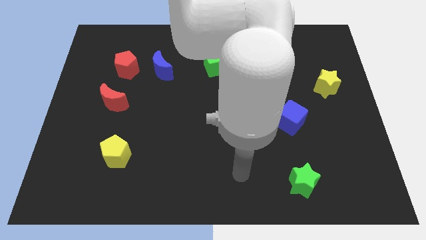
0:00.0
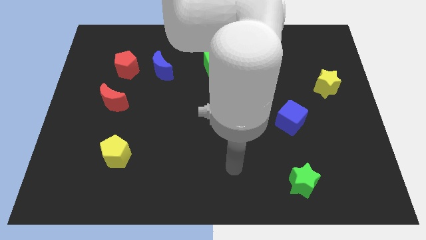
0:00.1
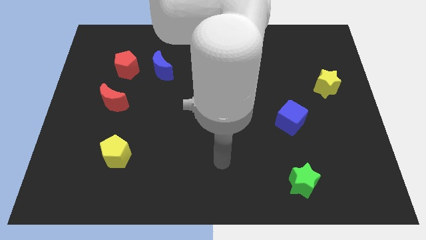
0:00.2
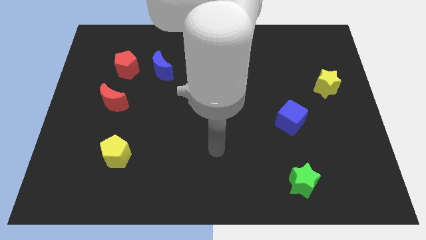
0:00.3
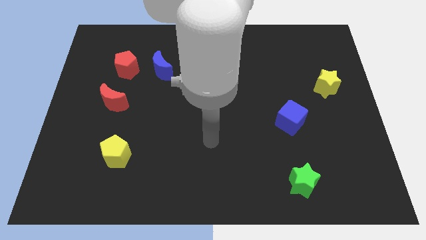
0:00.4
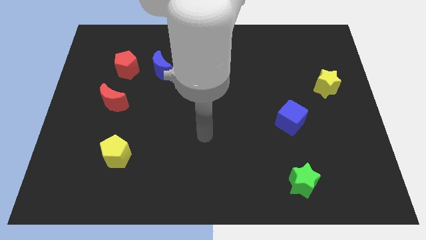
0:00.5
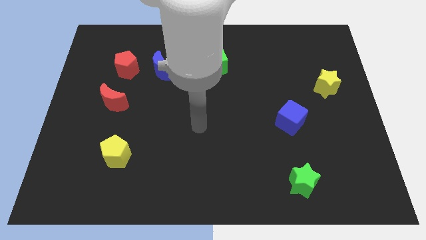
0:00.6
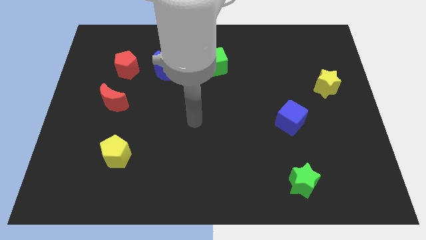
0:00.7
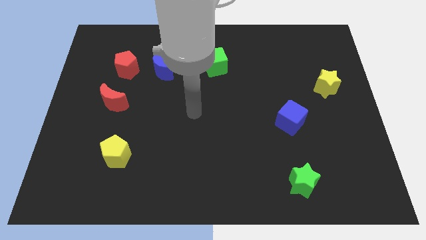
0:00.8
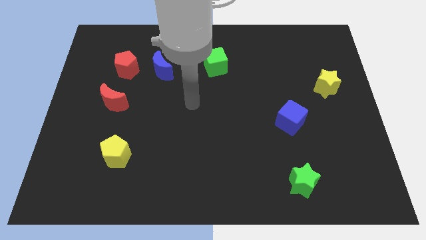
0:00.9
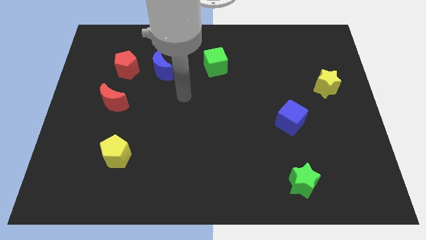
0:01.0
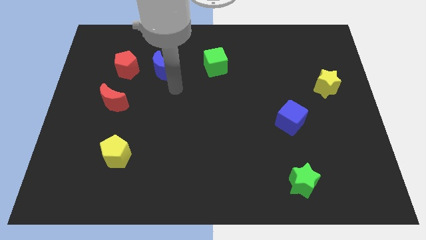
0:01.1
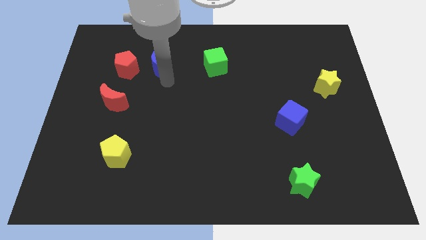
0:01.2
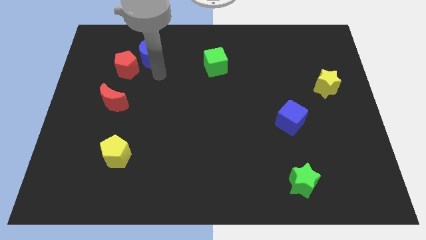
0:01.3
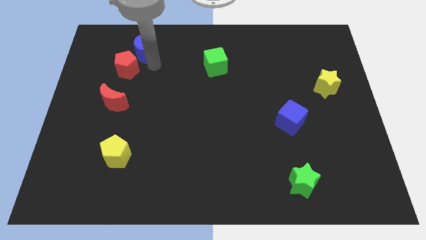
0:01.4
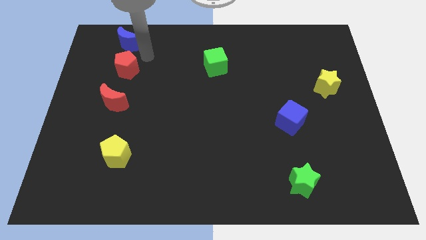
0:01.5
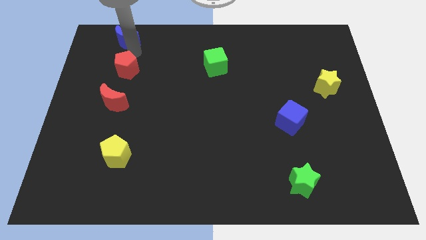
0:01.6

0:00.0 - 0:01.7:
pull the red pentagon apart from the blue moon

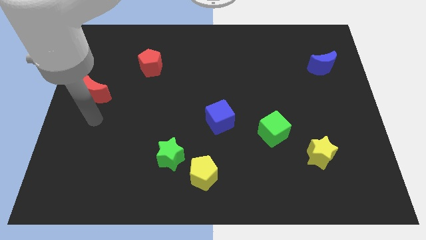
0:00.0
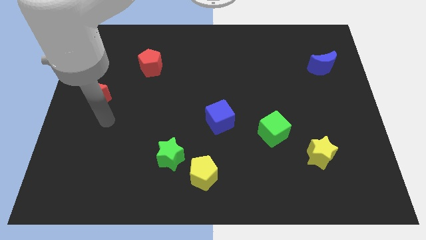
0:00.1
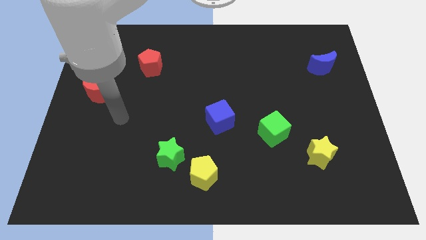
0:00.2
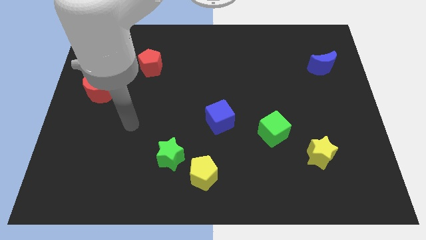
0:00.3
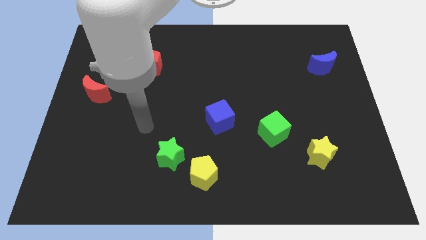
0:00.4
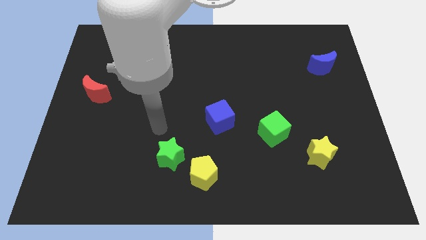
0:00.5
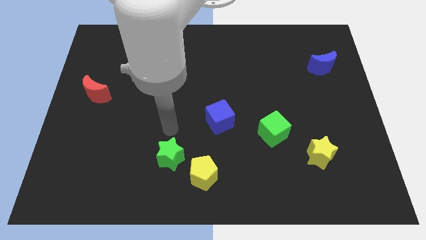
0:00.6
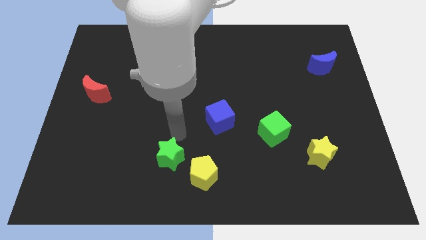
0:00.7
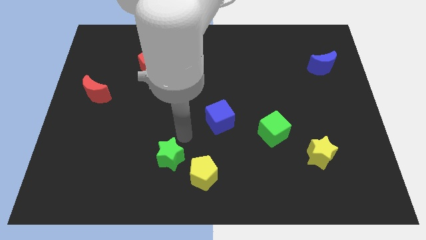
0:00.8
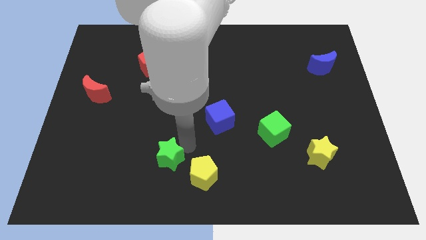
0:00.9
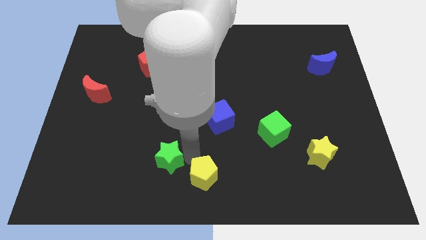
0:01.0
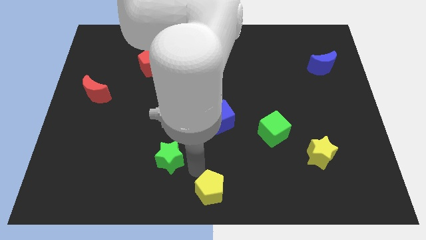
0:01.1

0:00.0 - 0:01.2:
pull the green star apart from the yellow pentagon

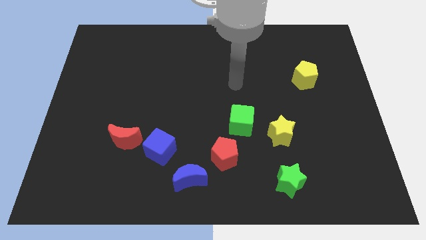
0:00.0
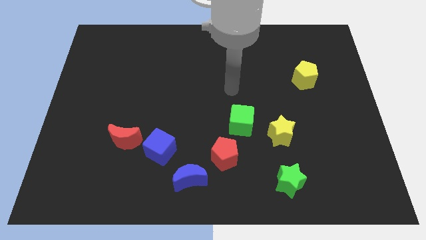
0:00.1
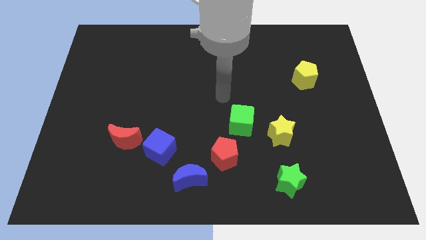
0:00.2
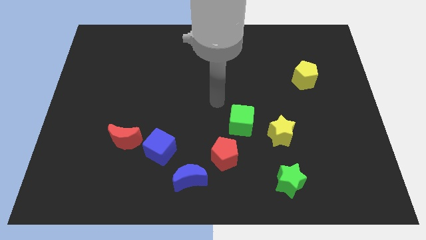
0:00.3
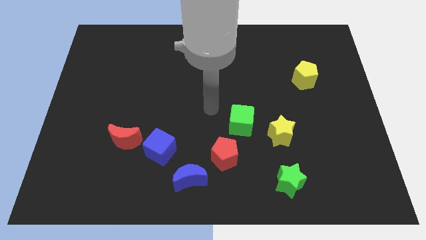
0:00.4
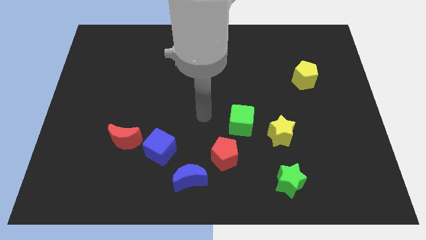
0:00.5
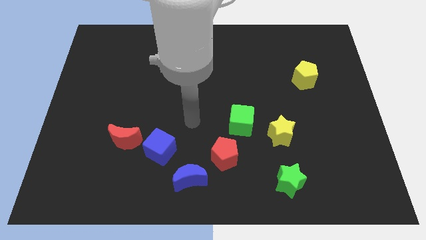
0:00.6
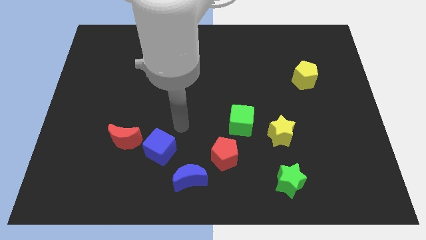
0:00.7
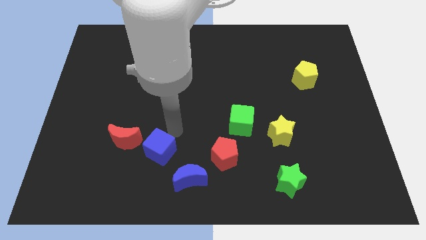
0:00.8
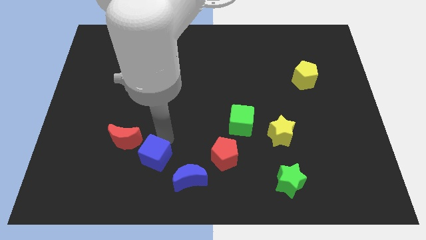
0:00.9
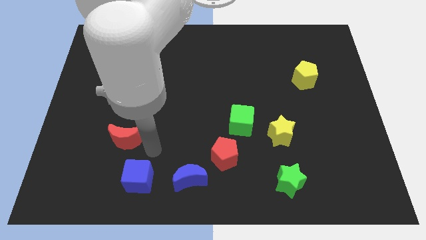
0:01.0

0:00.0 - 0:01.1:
move the red moon away from the blue cube

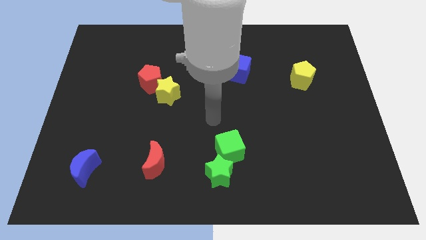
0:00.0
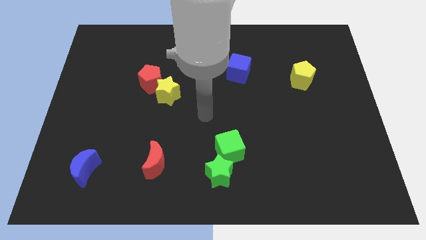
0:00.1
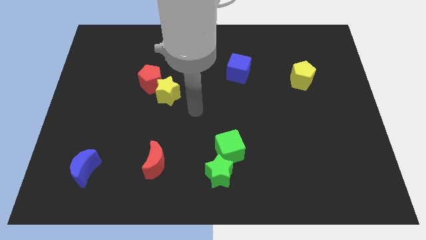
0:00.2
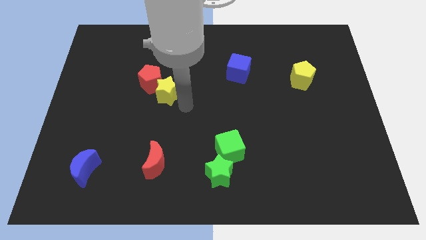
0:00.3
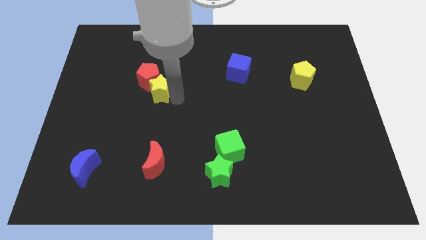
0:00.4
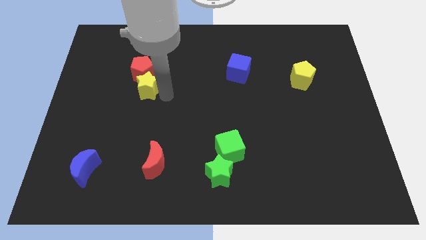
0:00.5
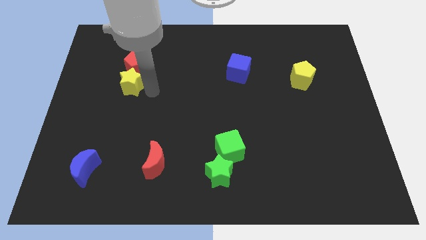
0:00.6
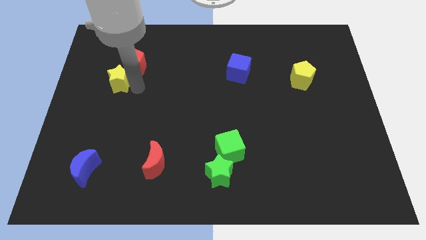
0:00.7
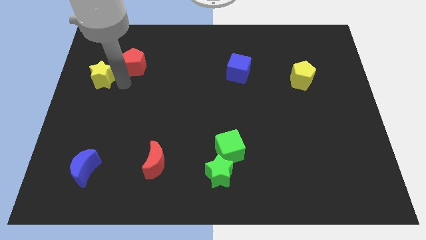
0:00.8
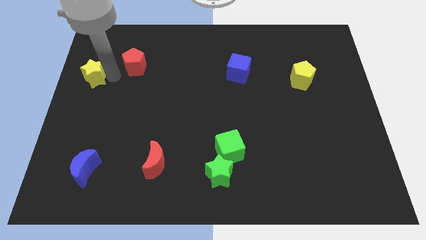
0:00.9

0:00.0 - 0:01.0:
pull the red pentagon apart from the yellow star

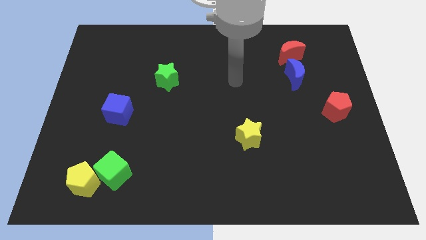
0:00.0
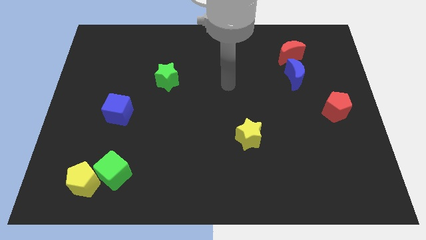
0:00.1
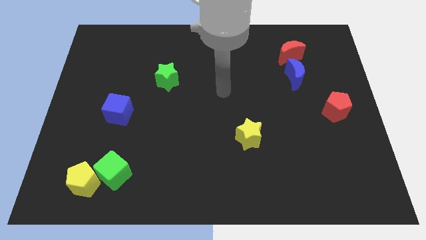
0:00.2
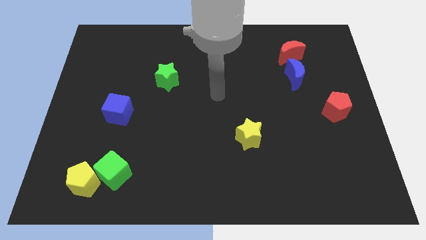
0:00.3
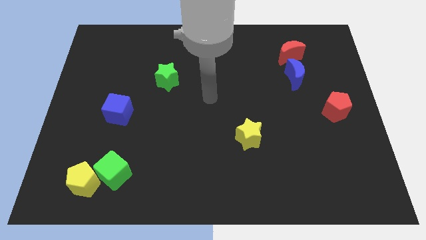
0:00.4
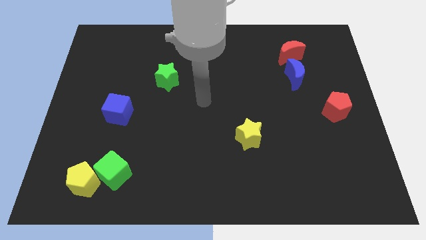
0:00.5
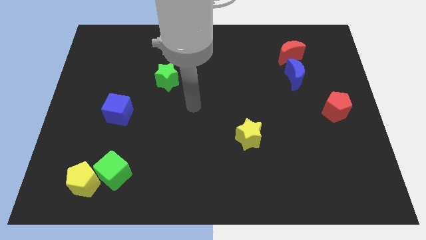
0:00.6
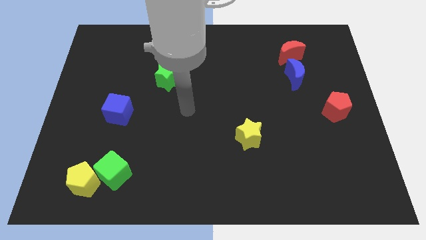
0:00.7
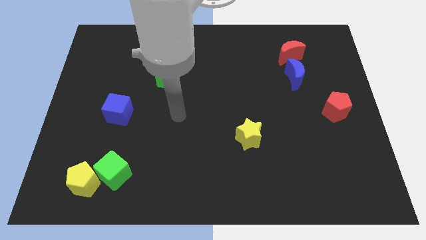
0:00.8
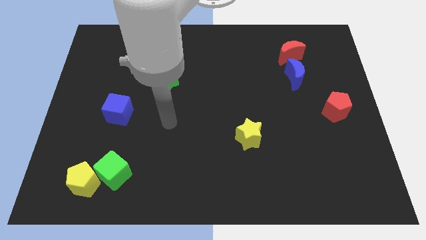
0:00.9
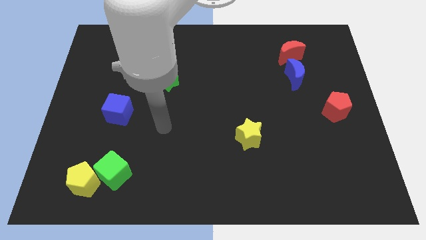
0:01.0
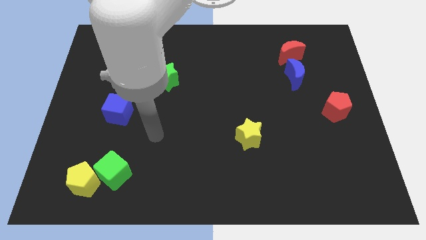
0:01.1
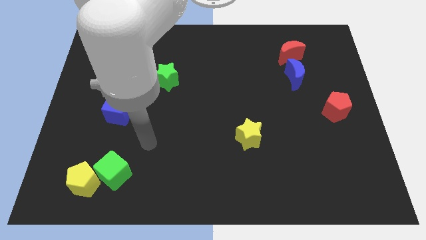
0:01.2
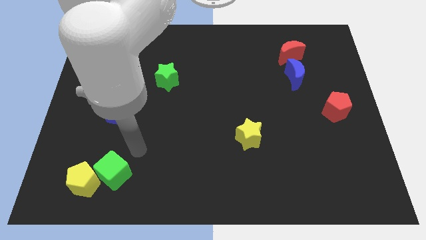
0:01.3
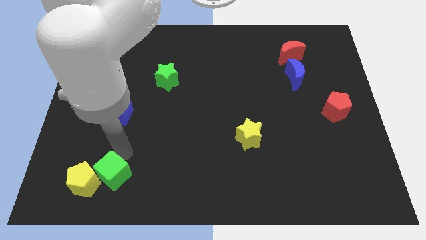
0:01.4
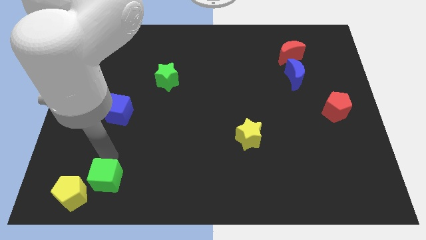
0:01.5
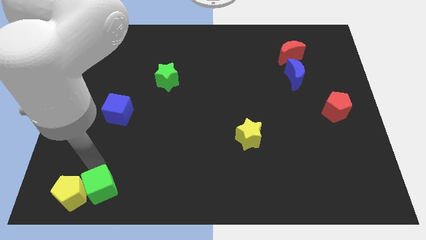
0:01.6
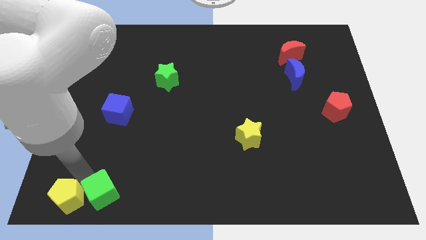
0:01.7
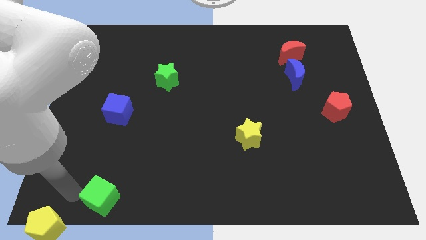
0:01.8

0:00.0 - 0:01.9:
pull the green cube apart from the yellow pentagon

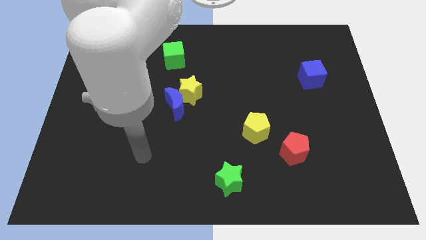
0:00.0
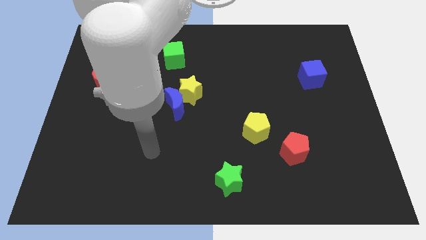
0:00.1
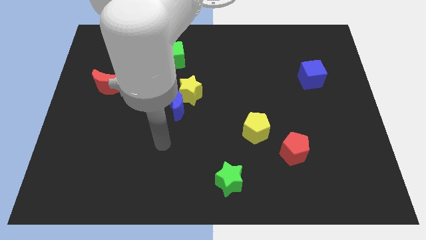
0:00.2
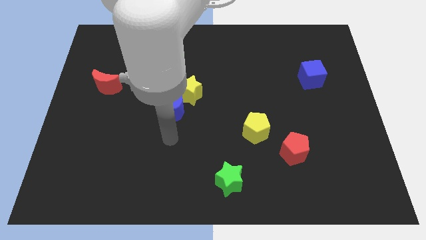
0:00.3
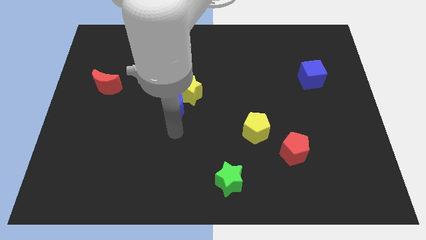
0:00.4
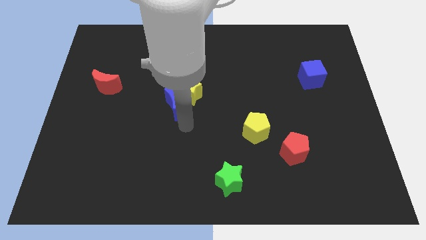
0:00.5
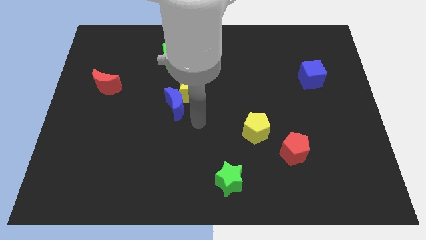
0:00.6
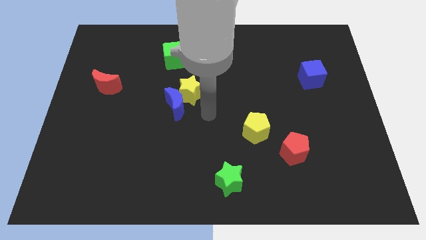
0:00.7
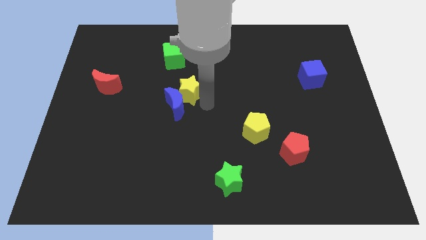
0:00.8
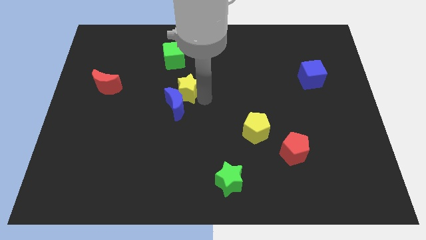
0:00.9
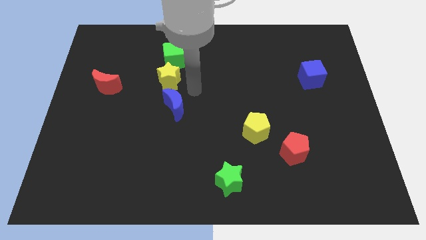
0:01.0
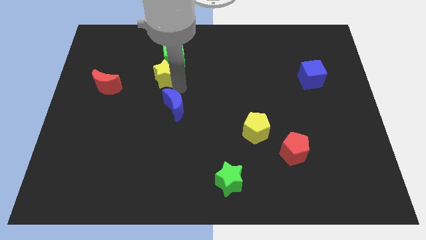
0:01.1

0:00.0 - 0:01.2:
separate the blue moon from the yellow star

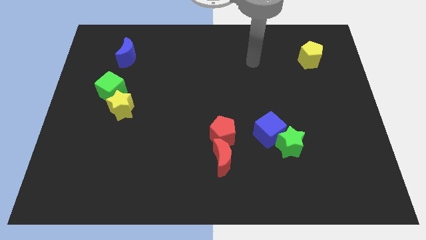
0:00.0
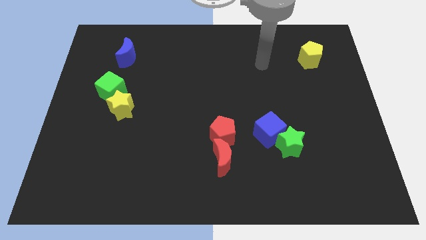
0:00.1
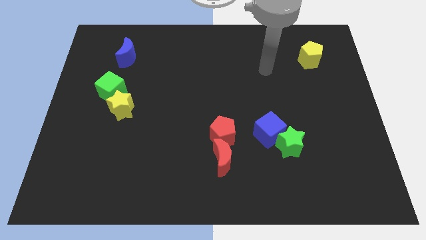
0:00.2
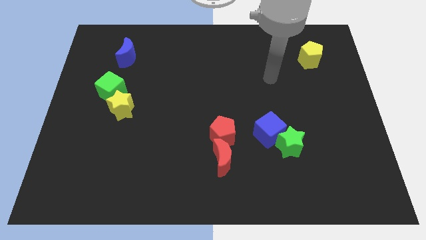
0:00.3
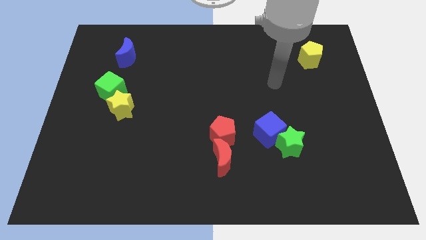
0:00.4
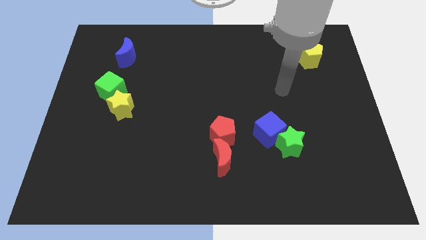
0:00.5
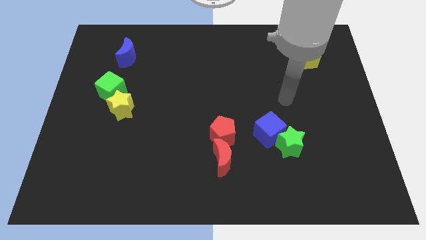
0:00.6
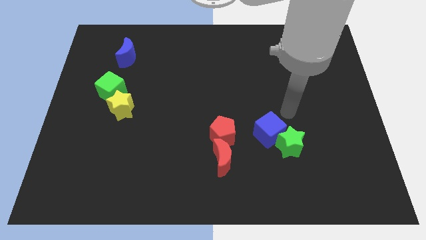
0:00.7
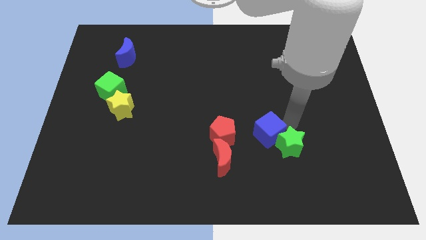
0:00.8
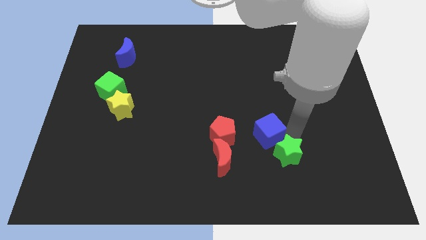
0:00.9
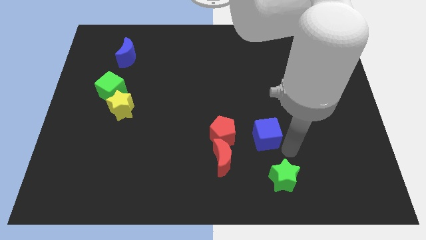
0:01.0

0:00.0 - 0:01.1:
separate the blue cube from the green star
